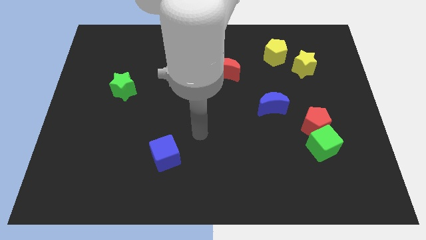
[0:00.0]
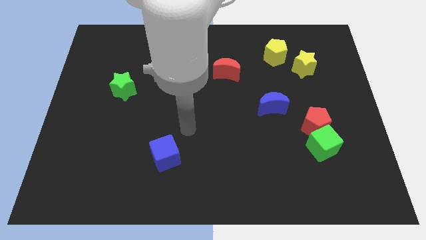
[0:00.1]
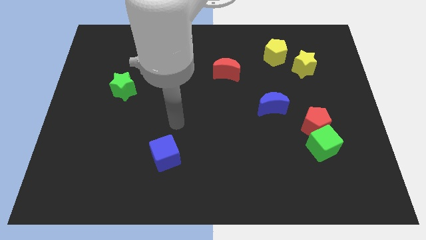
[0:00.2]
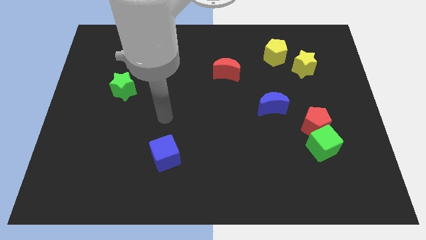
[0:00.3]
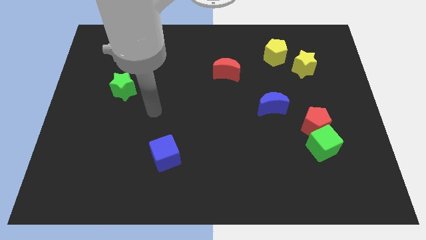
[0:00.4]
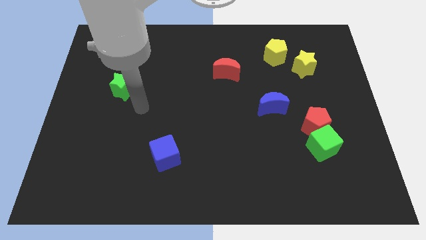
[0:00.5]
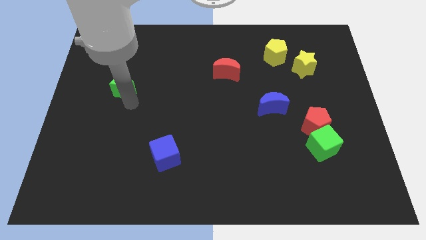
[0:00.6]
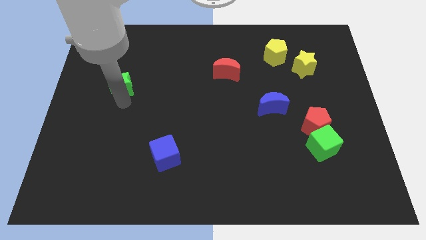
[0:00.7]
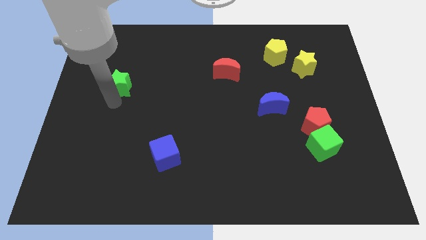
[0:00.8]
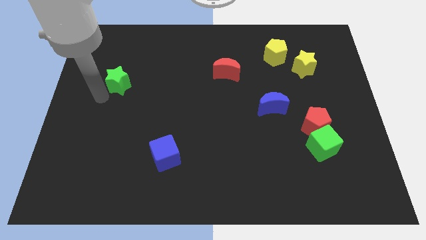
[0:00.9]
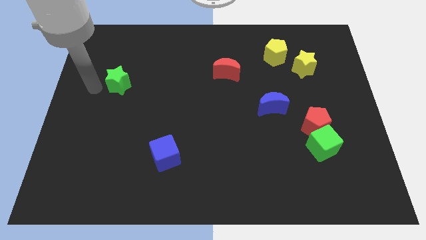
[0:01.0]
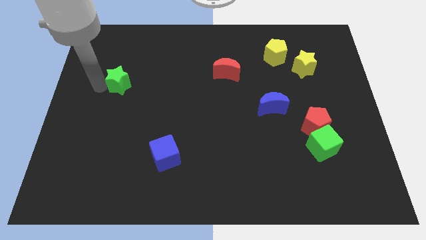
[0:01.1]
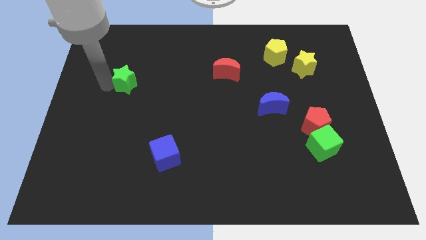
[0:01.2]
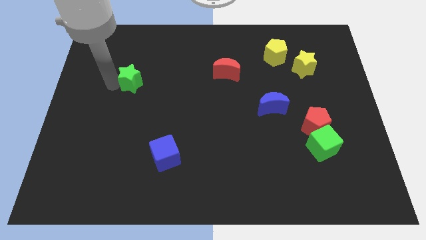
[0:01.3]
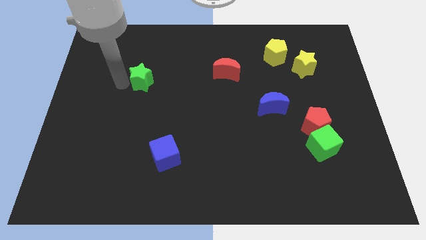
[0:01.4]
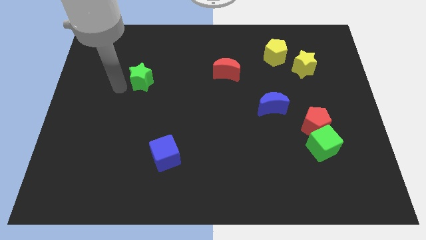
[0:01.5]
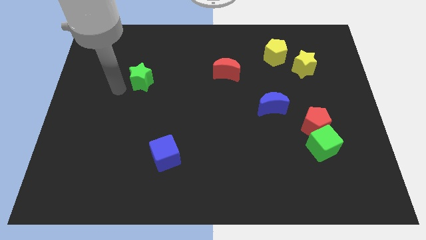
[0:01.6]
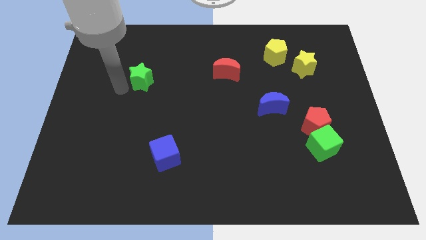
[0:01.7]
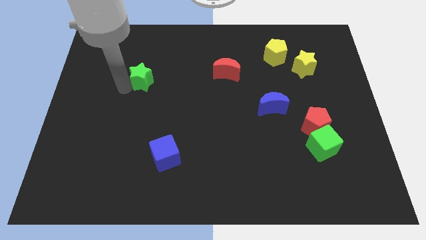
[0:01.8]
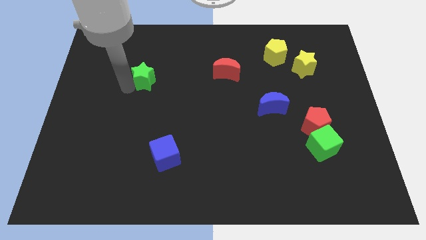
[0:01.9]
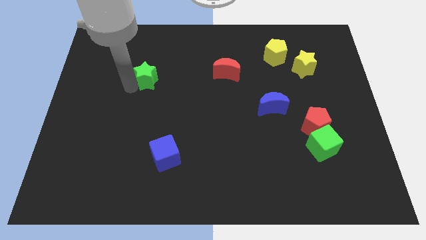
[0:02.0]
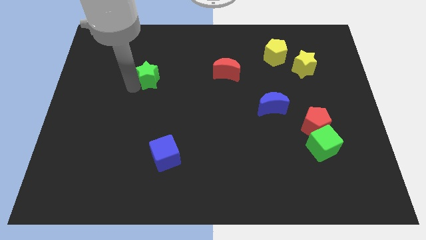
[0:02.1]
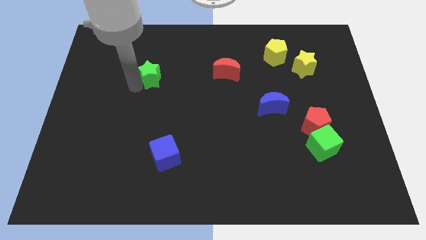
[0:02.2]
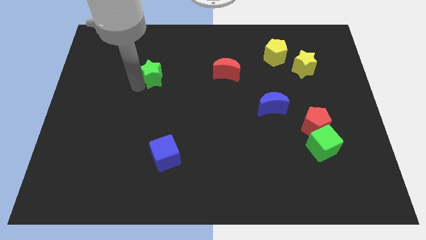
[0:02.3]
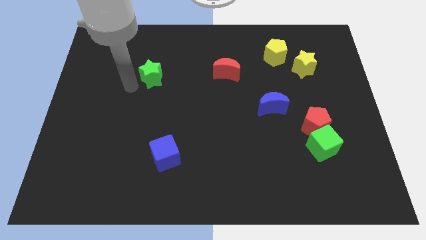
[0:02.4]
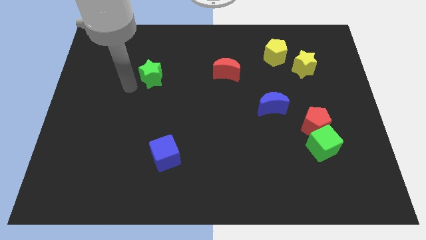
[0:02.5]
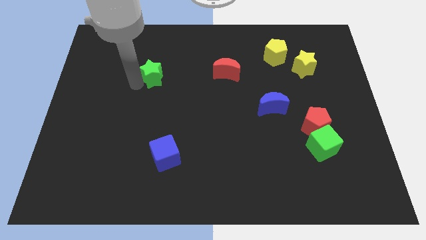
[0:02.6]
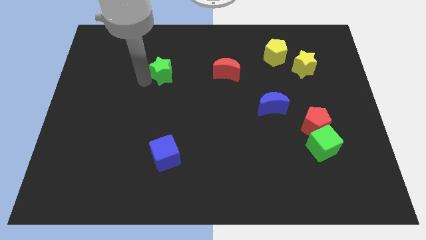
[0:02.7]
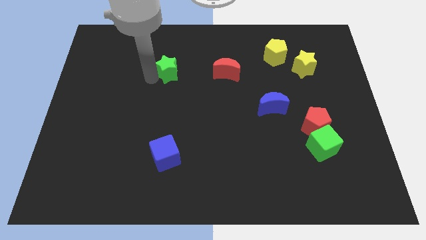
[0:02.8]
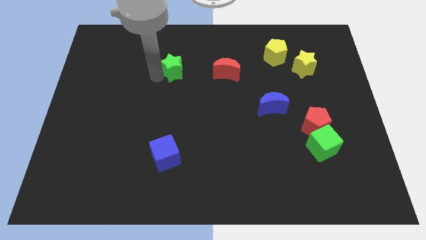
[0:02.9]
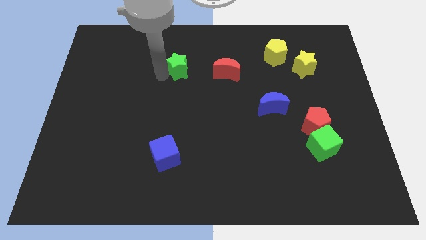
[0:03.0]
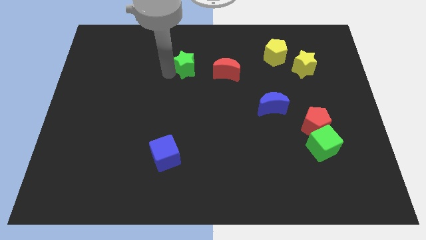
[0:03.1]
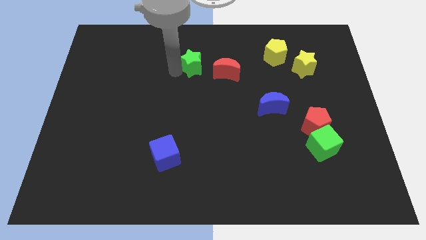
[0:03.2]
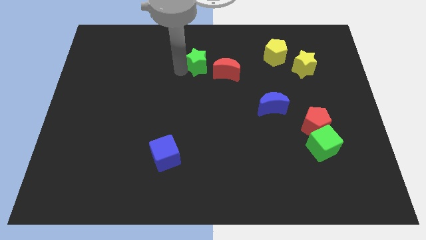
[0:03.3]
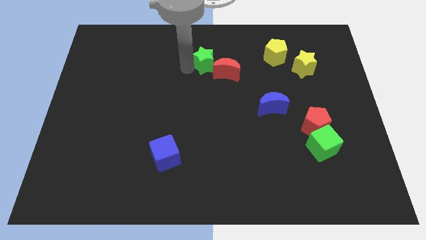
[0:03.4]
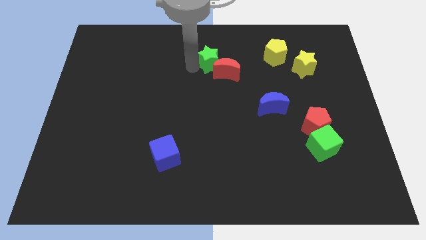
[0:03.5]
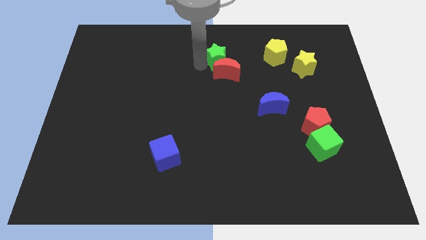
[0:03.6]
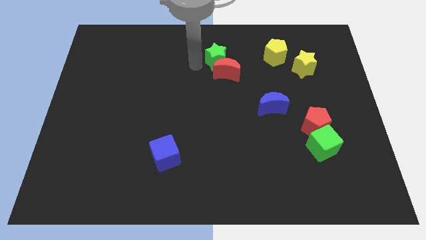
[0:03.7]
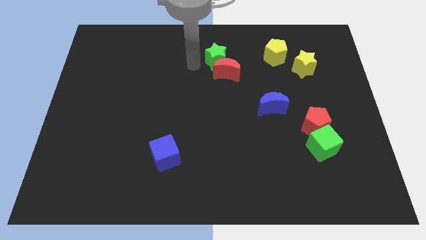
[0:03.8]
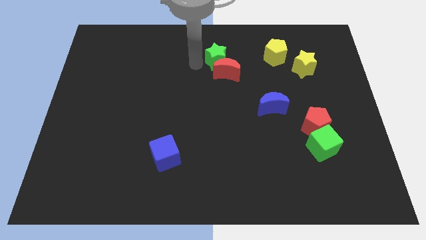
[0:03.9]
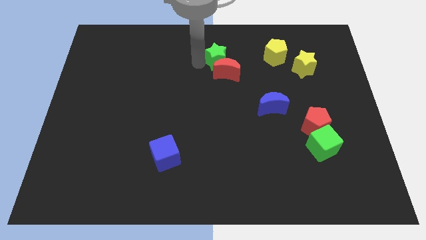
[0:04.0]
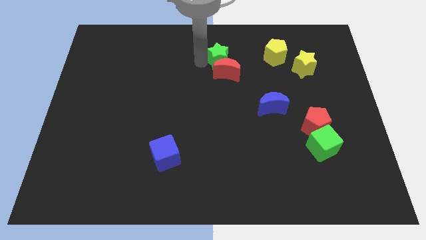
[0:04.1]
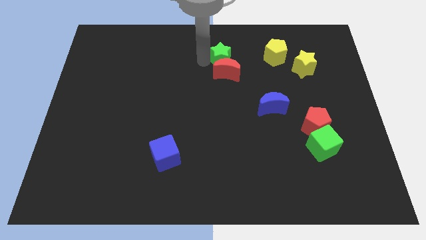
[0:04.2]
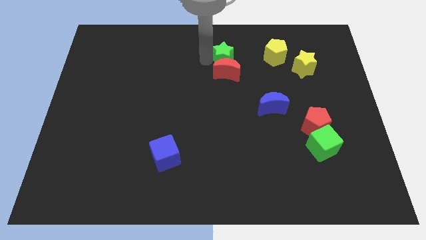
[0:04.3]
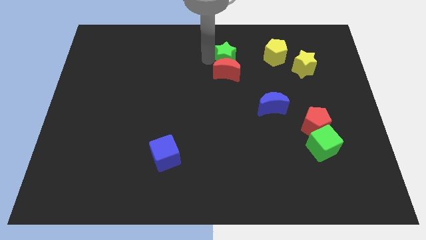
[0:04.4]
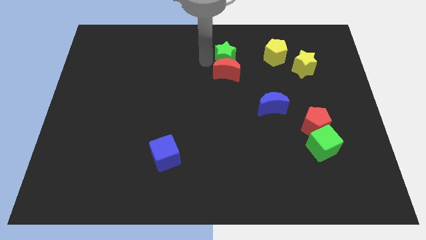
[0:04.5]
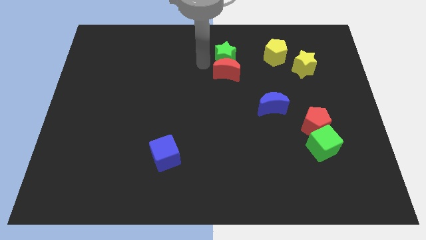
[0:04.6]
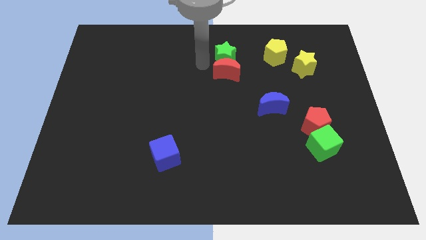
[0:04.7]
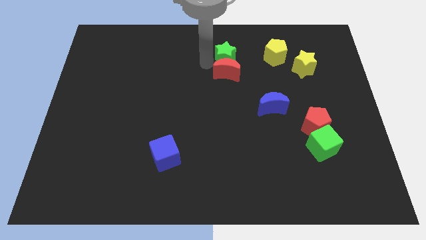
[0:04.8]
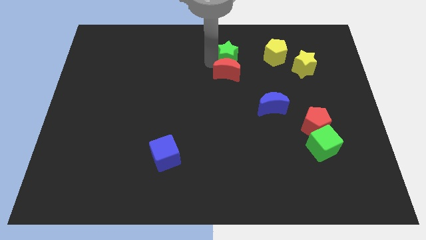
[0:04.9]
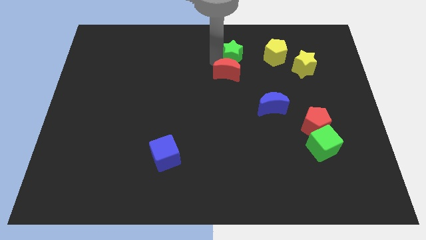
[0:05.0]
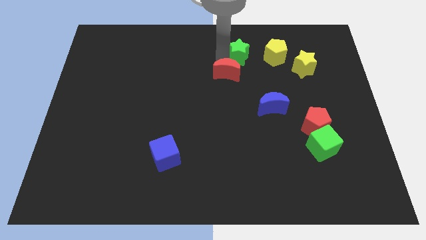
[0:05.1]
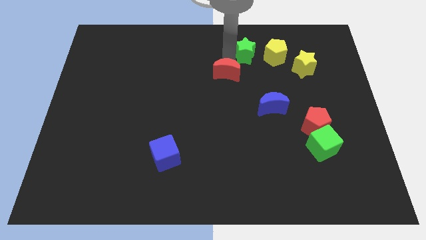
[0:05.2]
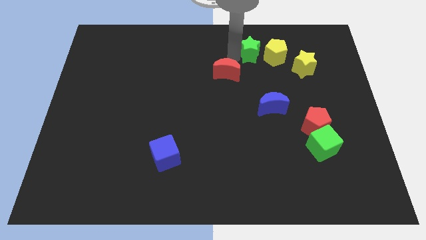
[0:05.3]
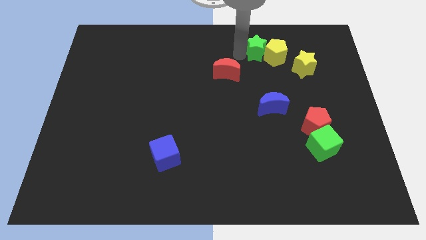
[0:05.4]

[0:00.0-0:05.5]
slide the green star to the yellow pentagon

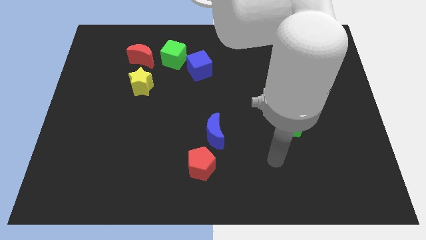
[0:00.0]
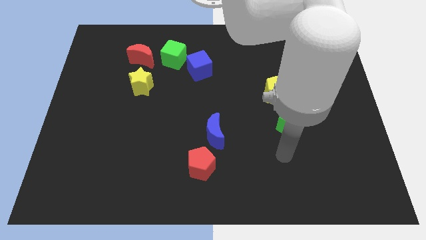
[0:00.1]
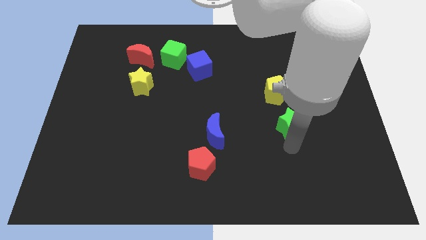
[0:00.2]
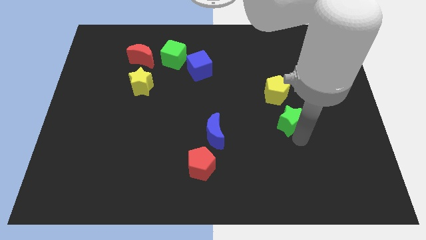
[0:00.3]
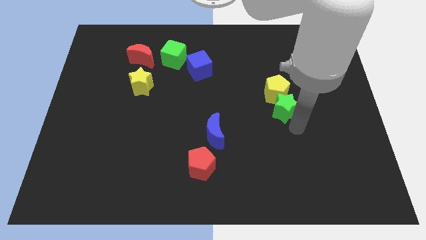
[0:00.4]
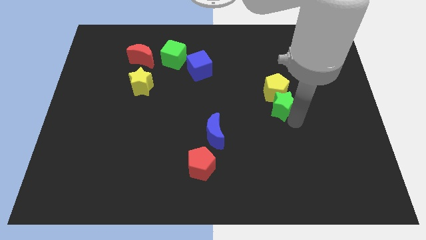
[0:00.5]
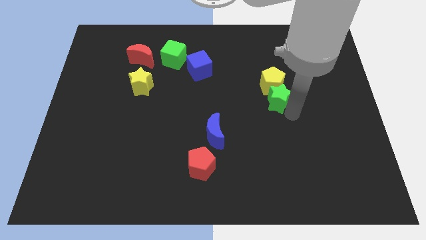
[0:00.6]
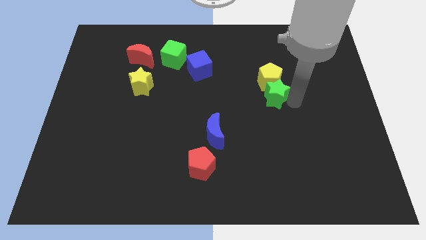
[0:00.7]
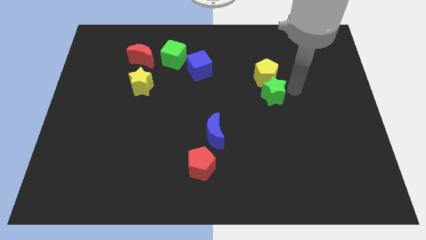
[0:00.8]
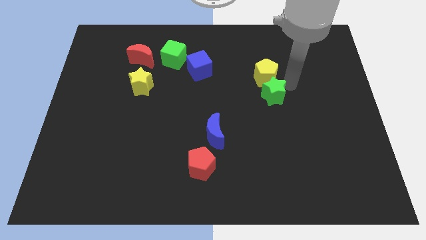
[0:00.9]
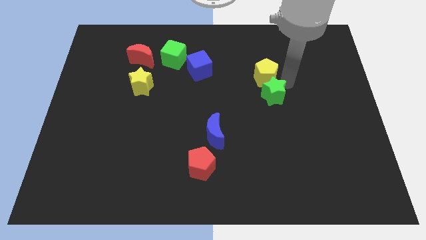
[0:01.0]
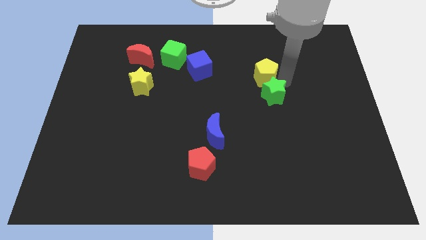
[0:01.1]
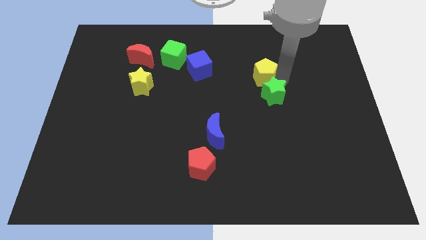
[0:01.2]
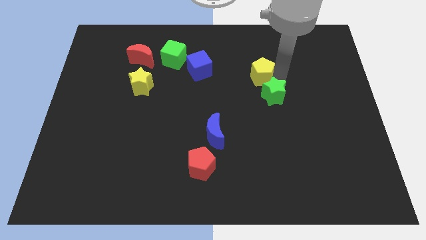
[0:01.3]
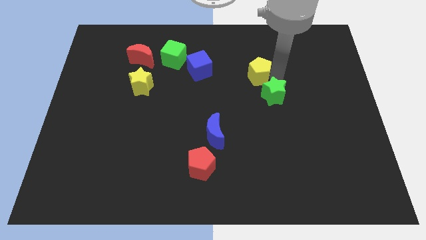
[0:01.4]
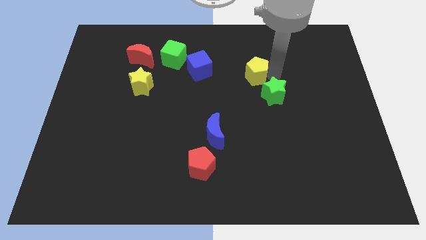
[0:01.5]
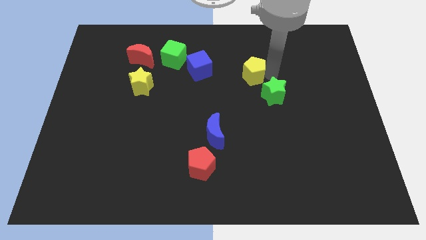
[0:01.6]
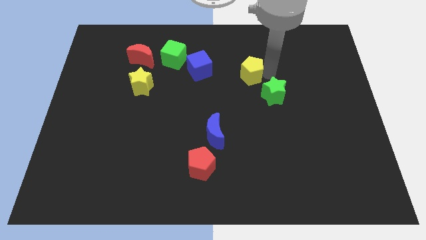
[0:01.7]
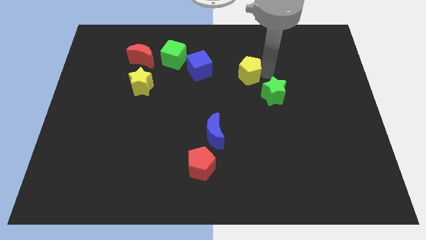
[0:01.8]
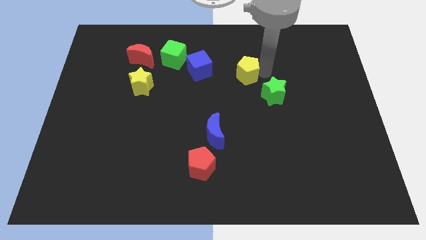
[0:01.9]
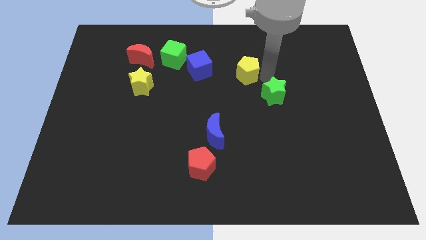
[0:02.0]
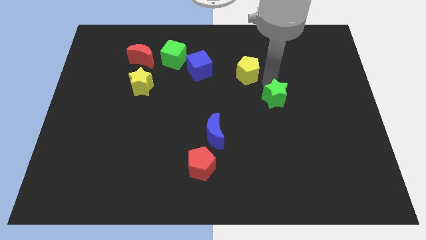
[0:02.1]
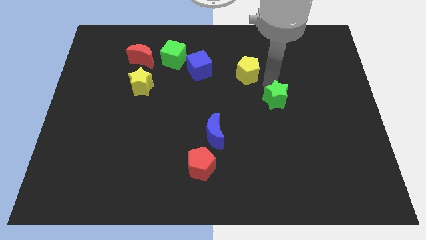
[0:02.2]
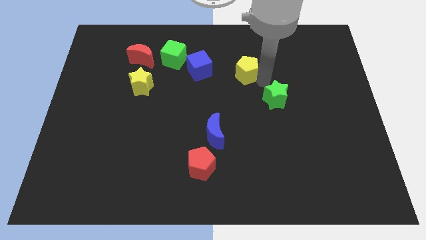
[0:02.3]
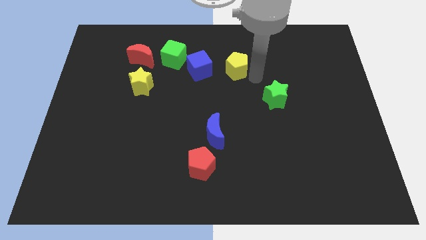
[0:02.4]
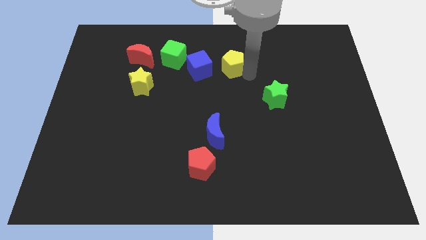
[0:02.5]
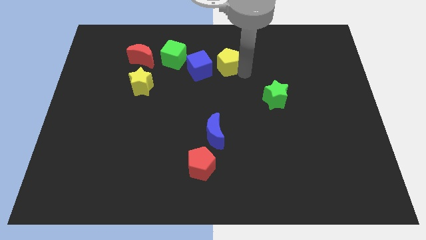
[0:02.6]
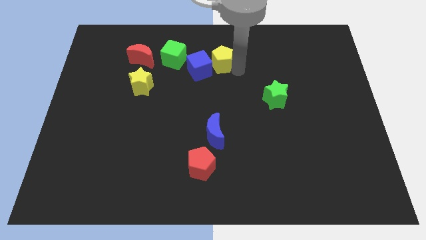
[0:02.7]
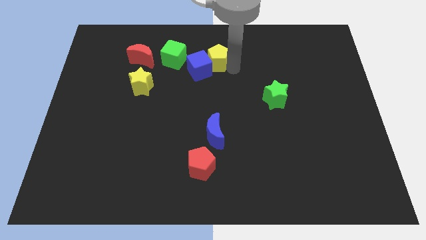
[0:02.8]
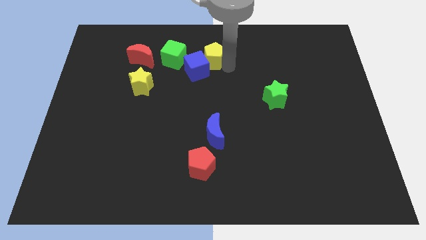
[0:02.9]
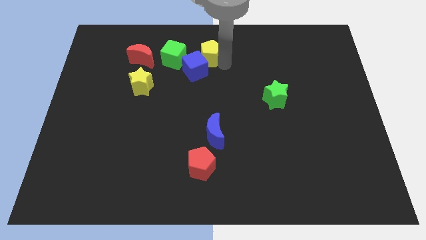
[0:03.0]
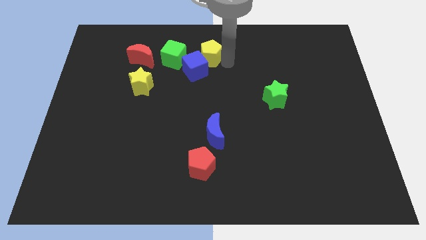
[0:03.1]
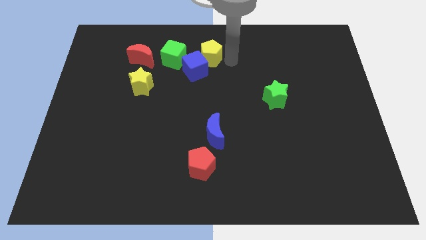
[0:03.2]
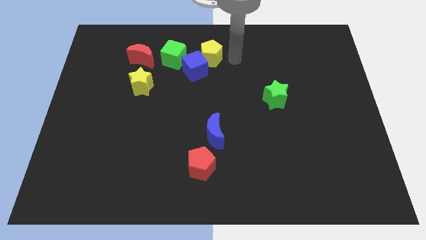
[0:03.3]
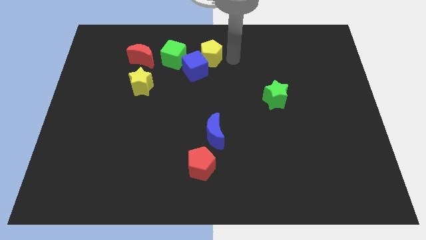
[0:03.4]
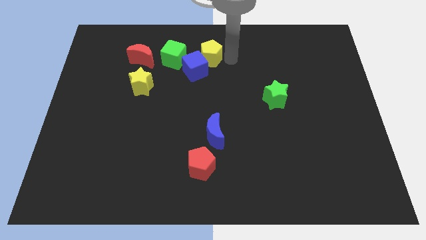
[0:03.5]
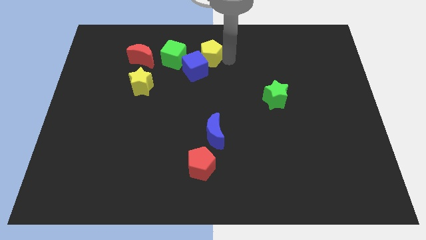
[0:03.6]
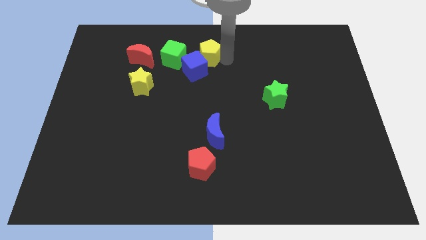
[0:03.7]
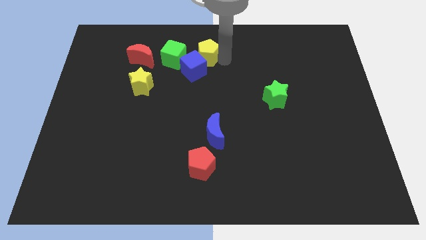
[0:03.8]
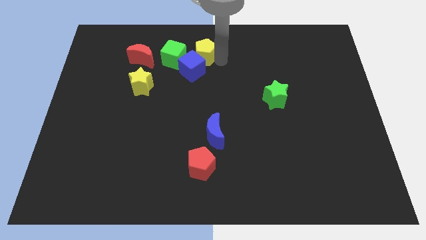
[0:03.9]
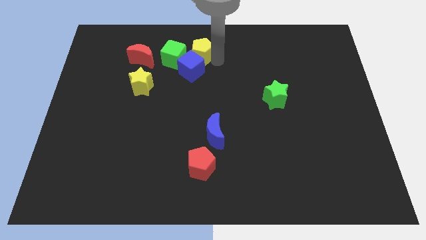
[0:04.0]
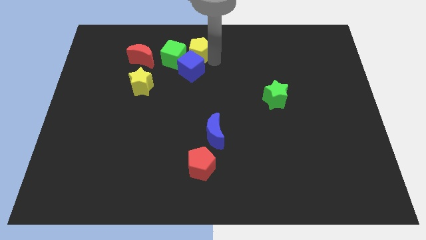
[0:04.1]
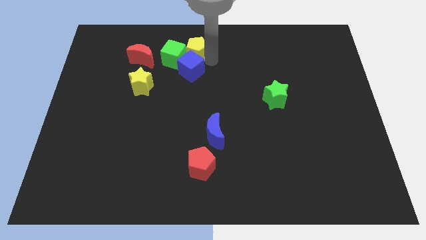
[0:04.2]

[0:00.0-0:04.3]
put the yellow pentagon close to the green cube
